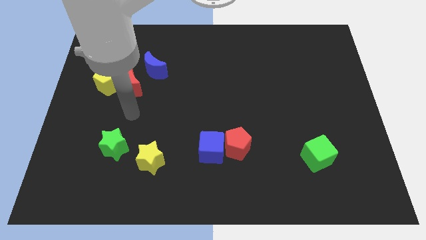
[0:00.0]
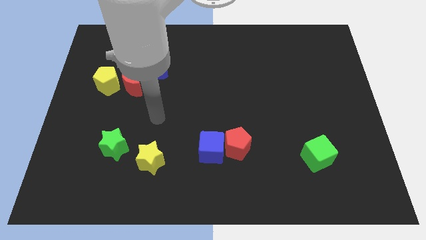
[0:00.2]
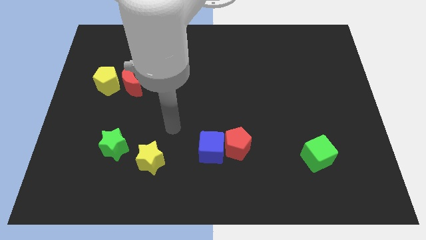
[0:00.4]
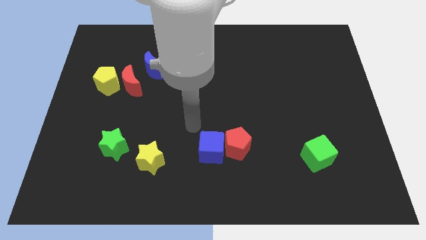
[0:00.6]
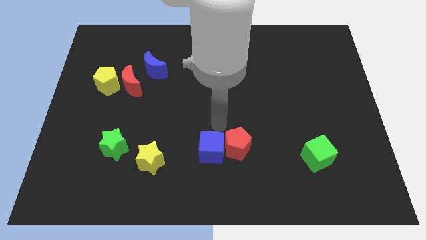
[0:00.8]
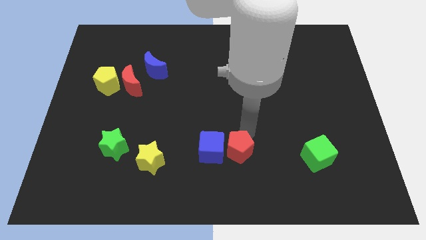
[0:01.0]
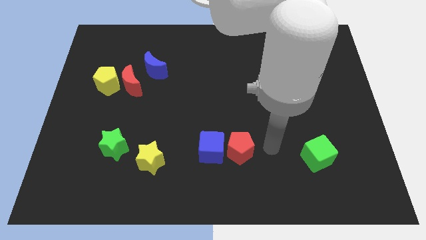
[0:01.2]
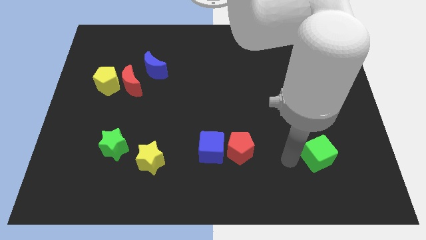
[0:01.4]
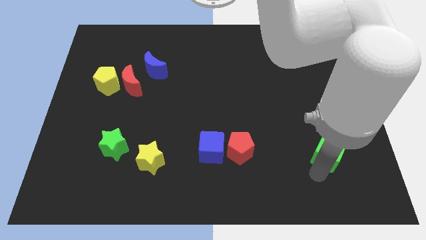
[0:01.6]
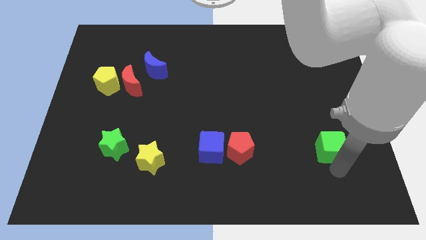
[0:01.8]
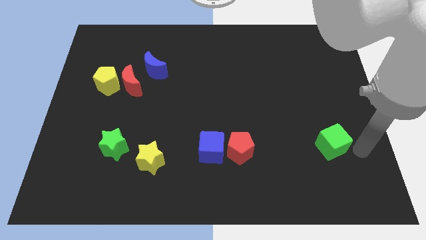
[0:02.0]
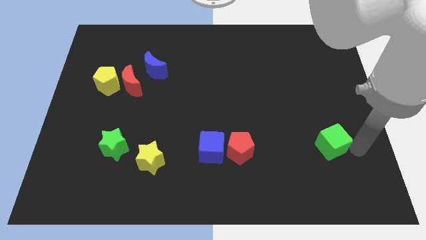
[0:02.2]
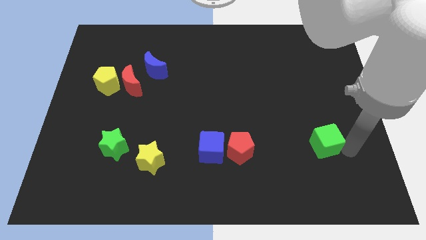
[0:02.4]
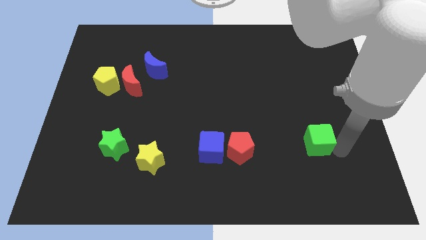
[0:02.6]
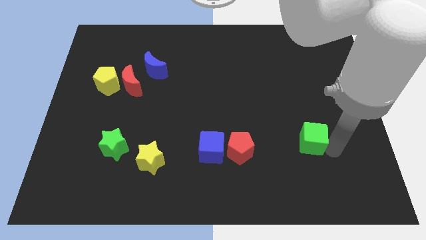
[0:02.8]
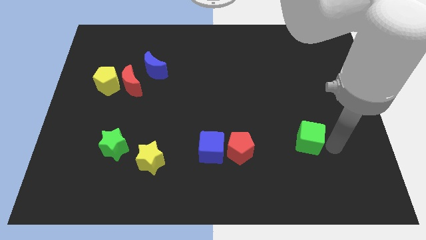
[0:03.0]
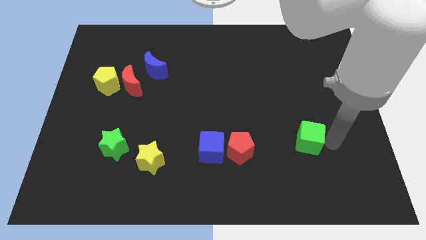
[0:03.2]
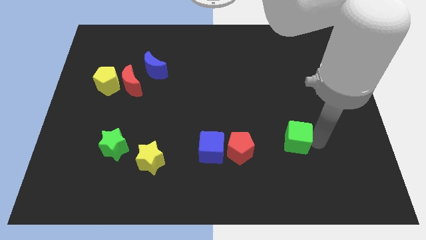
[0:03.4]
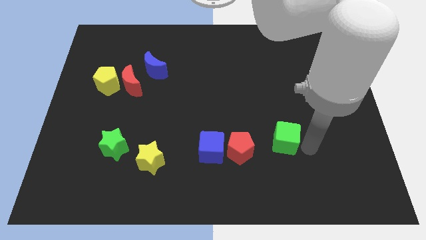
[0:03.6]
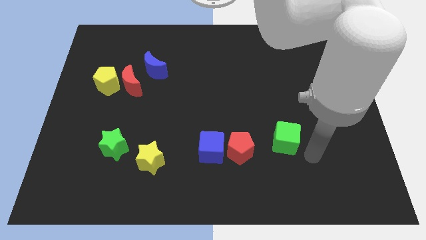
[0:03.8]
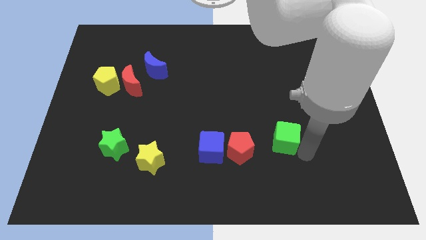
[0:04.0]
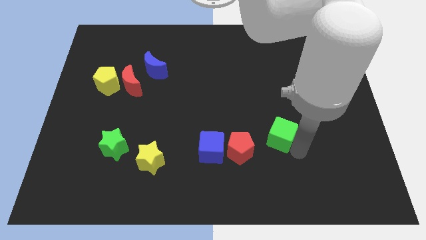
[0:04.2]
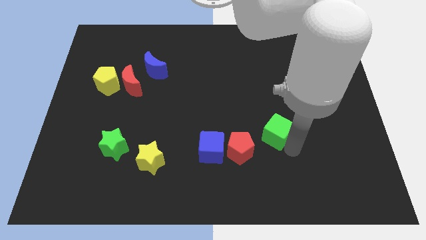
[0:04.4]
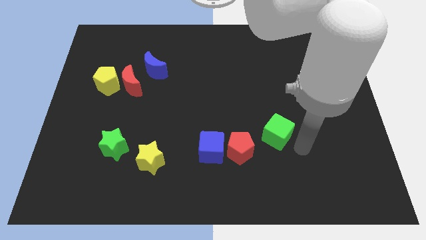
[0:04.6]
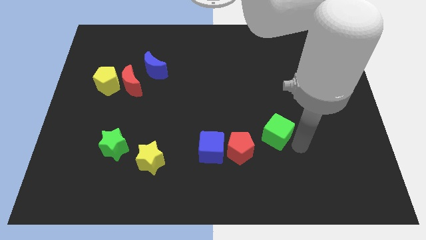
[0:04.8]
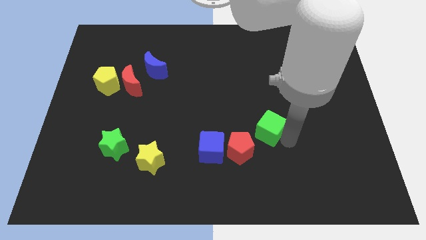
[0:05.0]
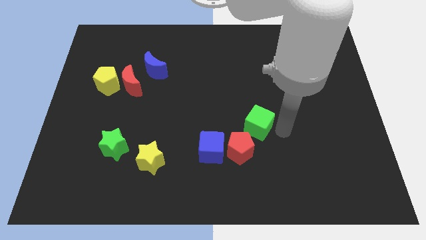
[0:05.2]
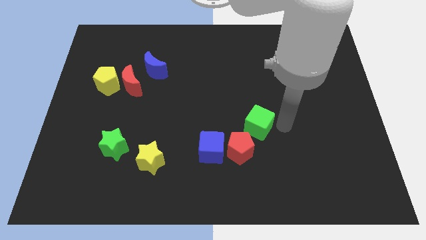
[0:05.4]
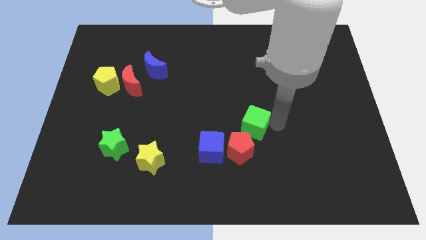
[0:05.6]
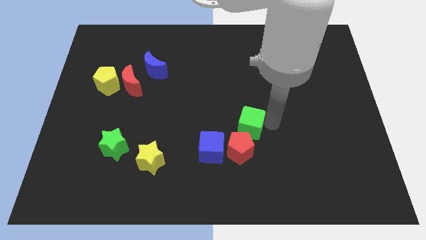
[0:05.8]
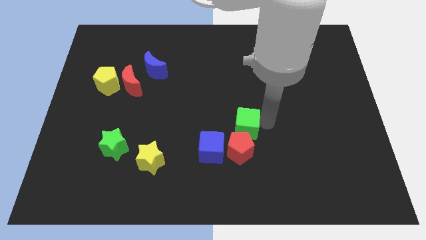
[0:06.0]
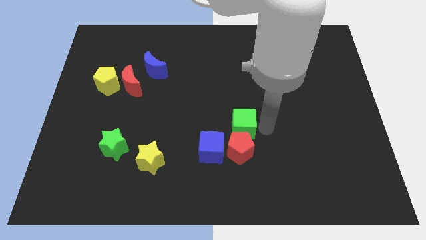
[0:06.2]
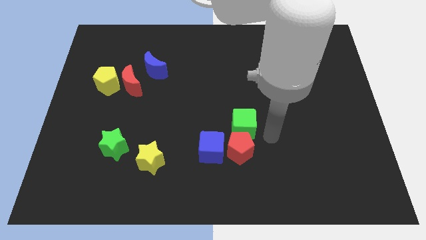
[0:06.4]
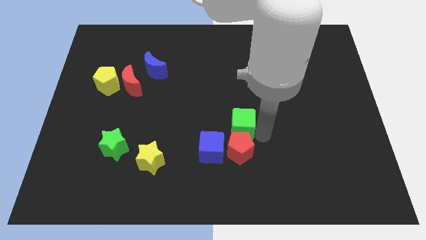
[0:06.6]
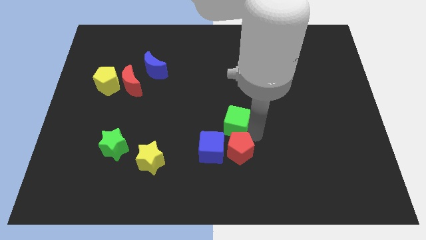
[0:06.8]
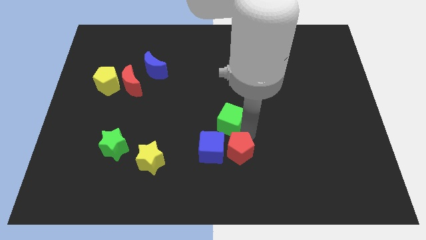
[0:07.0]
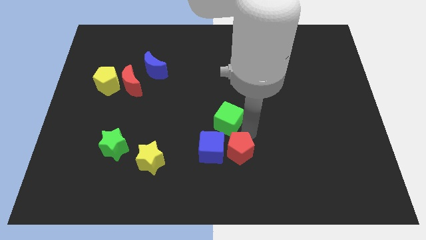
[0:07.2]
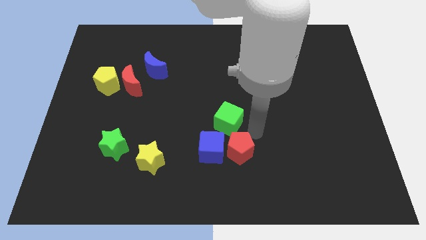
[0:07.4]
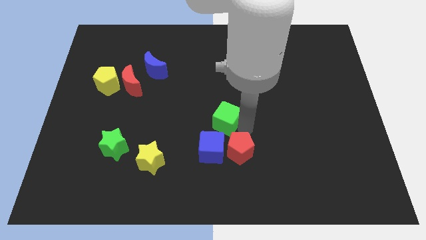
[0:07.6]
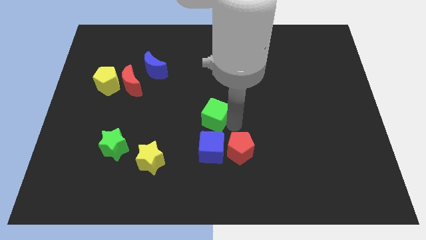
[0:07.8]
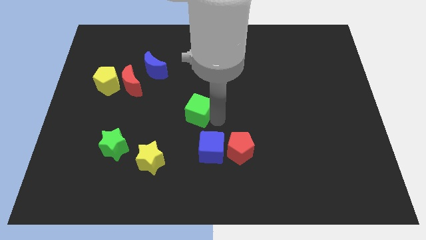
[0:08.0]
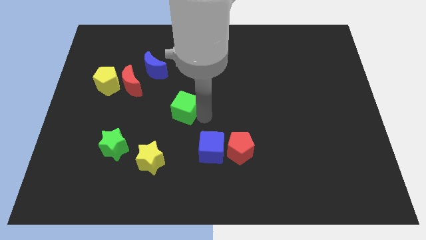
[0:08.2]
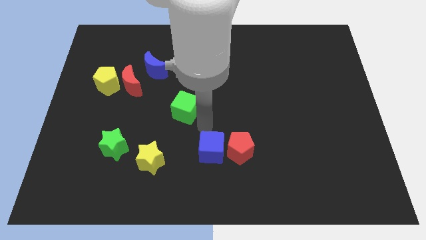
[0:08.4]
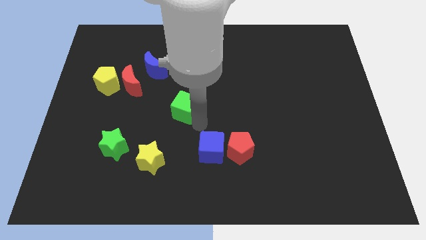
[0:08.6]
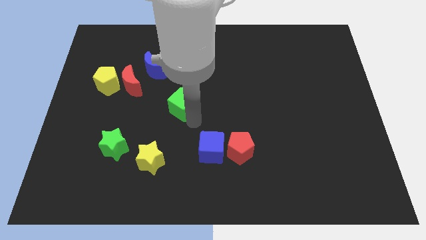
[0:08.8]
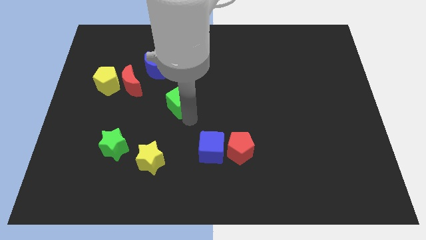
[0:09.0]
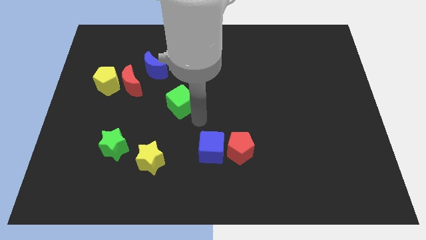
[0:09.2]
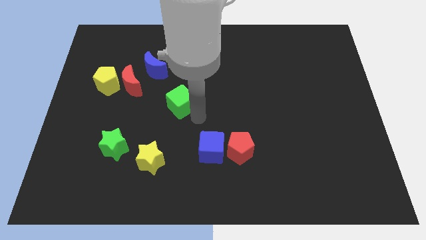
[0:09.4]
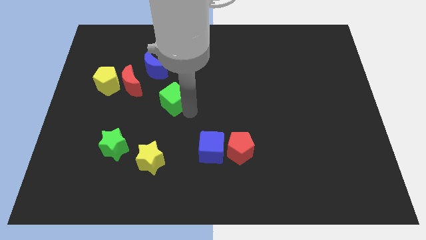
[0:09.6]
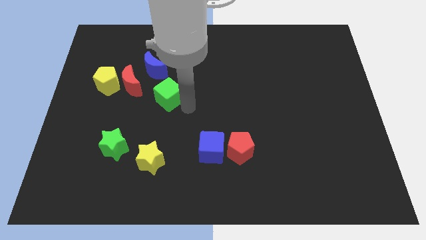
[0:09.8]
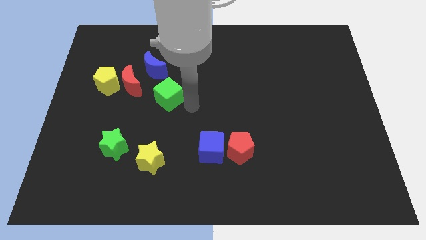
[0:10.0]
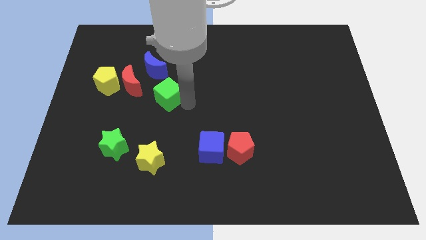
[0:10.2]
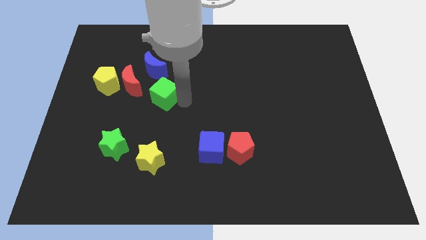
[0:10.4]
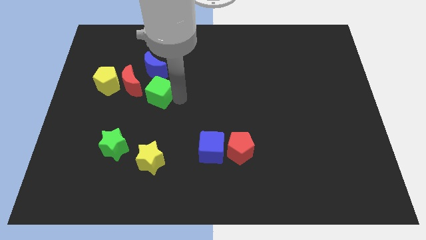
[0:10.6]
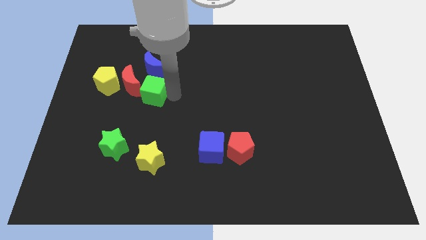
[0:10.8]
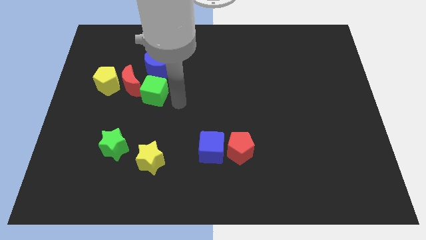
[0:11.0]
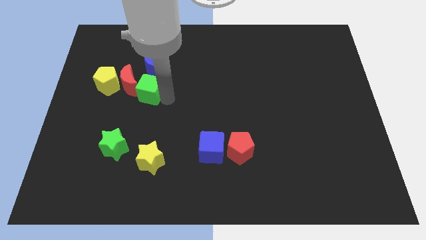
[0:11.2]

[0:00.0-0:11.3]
move the green cube towards the red moon

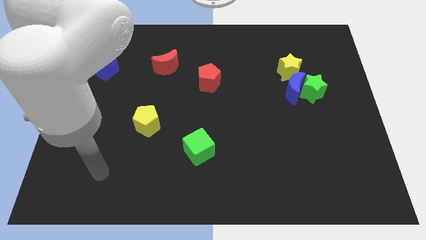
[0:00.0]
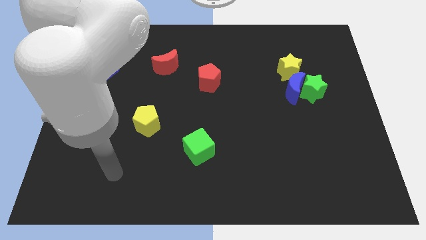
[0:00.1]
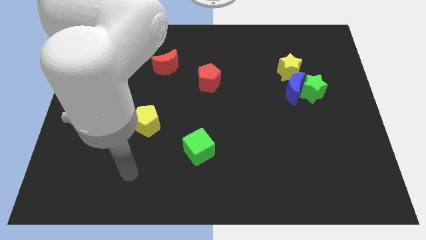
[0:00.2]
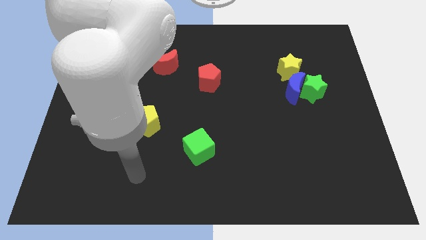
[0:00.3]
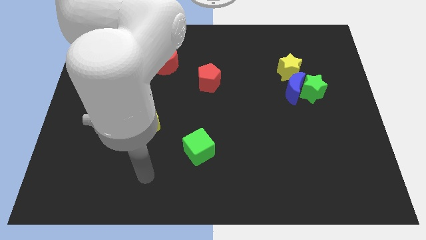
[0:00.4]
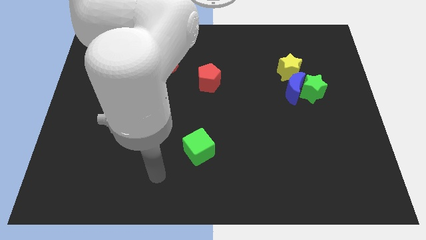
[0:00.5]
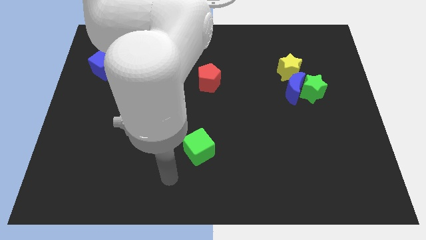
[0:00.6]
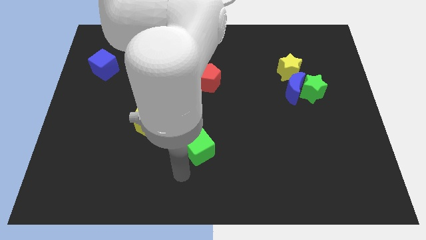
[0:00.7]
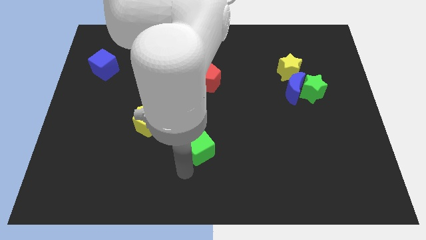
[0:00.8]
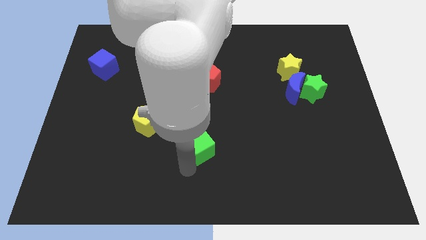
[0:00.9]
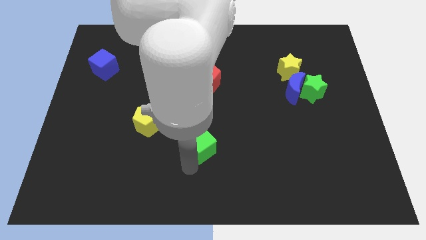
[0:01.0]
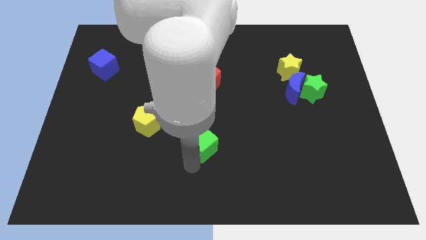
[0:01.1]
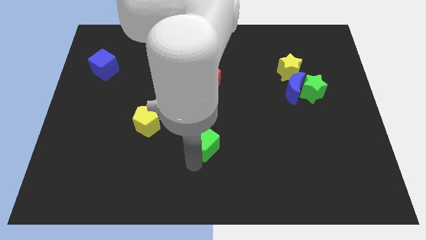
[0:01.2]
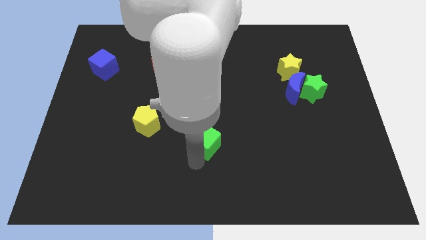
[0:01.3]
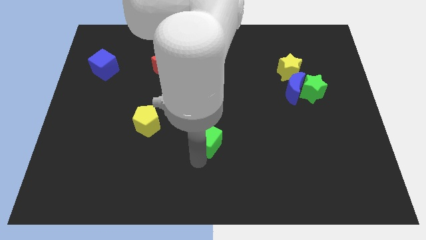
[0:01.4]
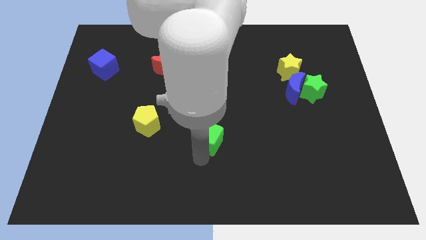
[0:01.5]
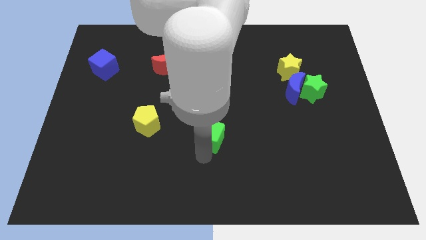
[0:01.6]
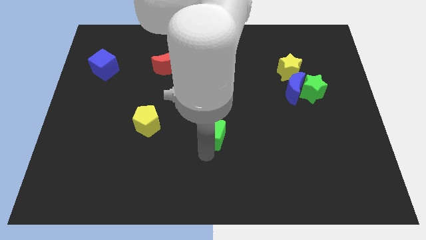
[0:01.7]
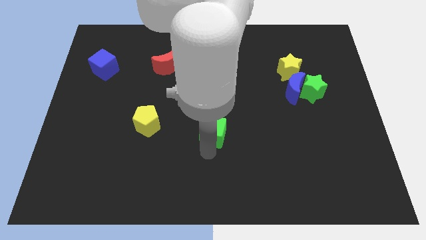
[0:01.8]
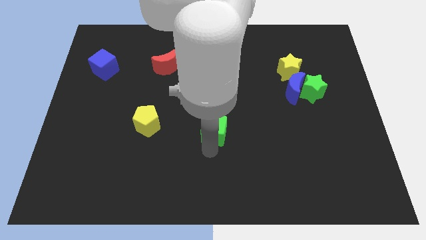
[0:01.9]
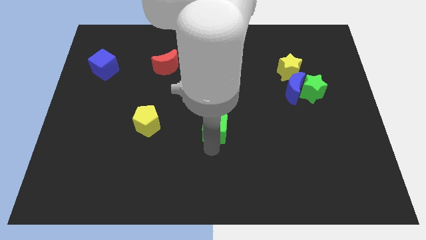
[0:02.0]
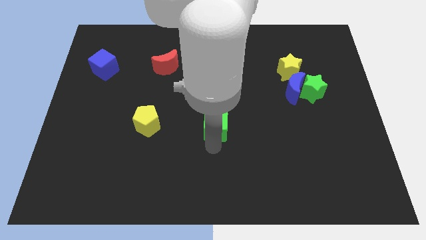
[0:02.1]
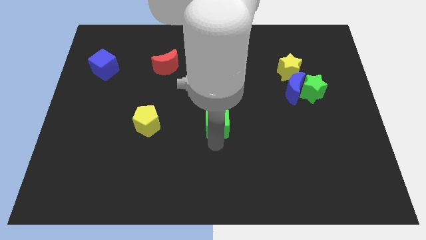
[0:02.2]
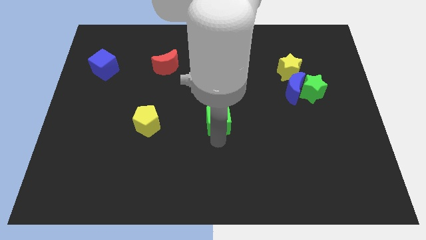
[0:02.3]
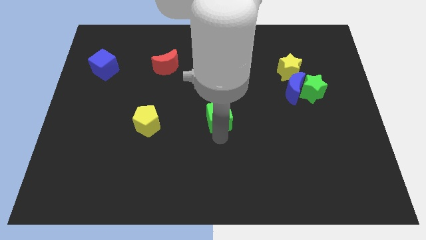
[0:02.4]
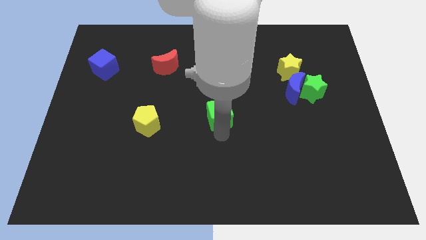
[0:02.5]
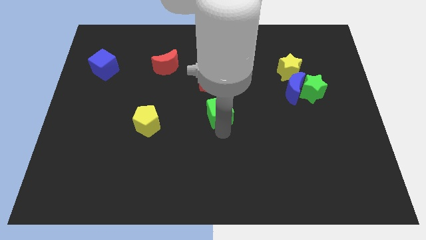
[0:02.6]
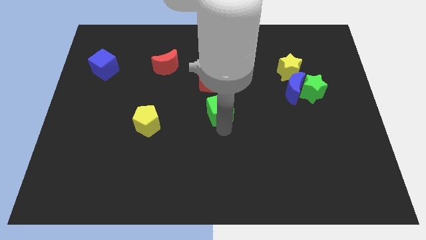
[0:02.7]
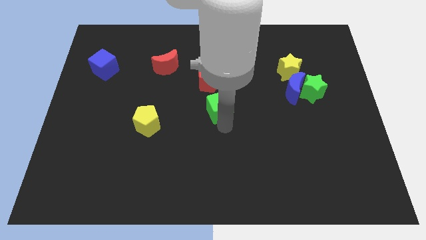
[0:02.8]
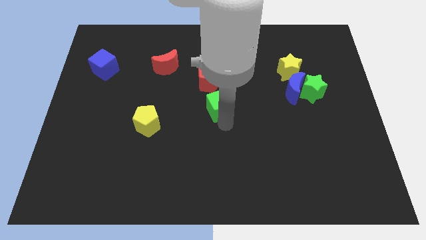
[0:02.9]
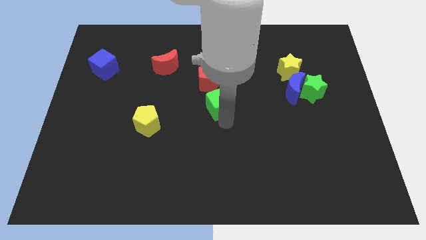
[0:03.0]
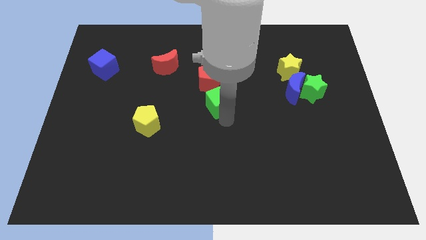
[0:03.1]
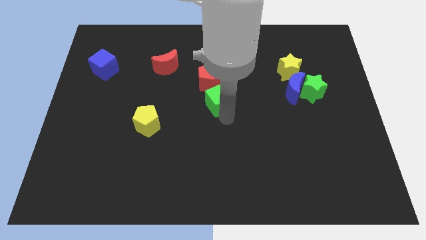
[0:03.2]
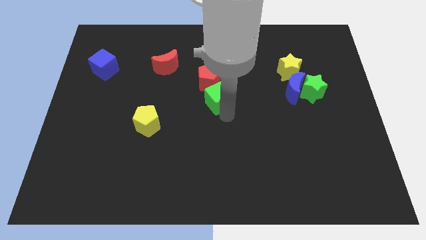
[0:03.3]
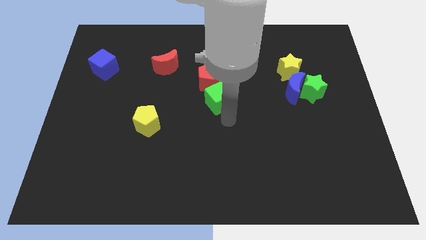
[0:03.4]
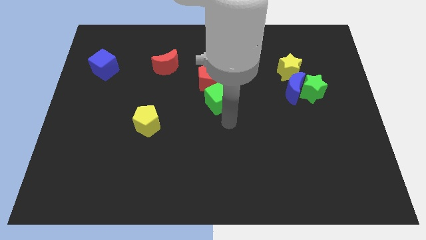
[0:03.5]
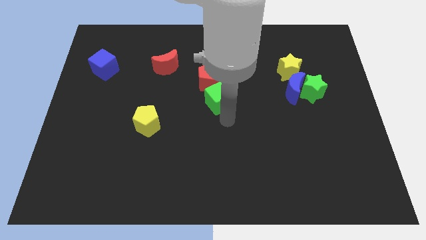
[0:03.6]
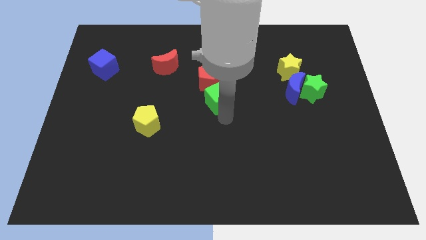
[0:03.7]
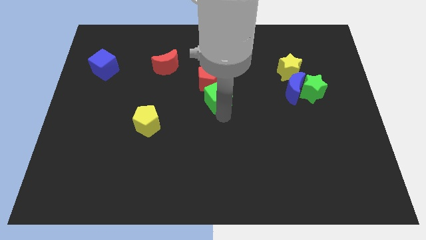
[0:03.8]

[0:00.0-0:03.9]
move the green cube next to the red pentagon
